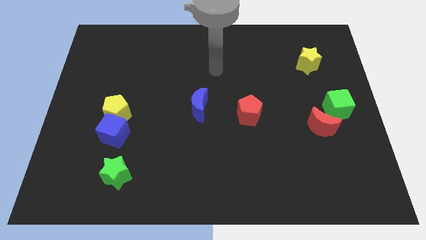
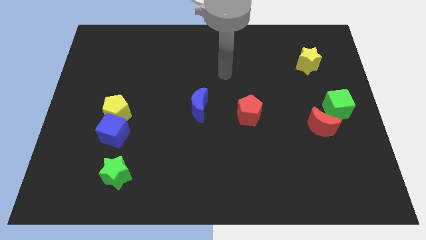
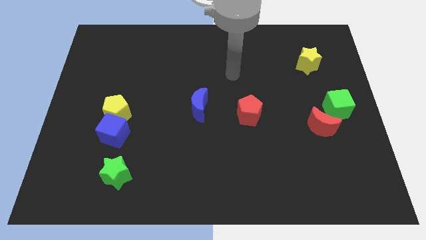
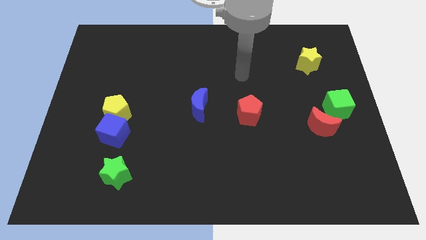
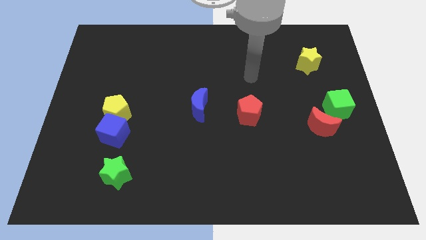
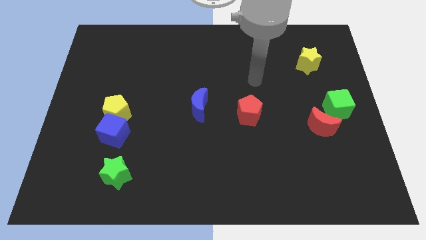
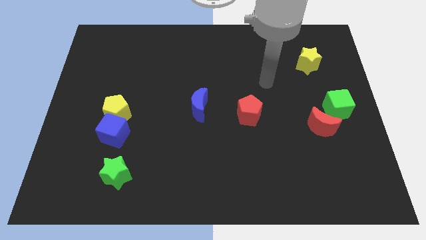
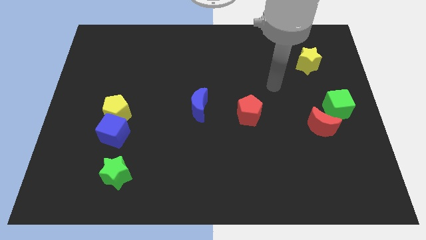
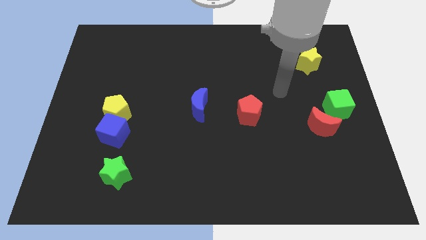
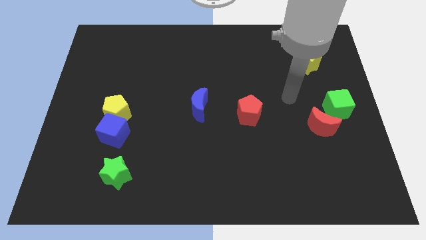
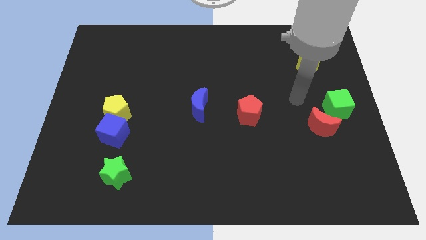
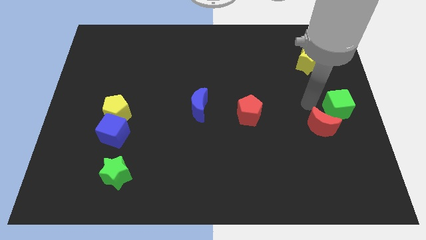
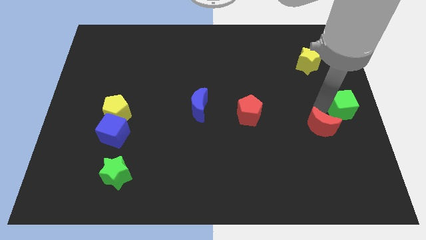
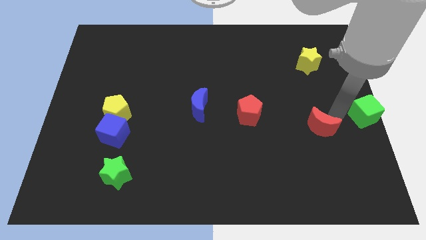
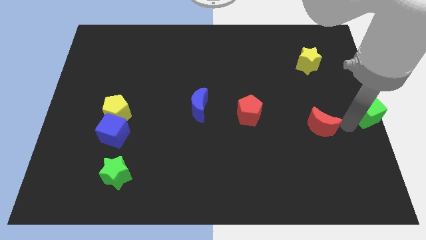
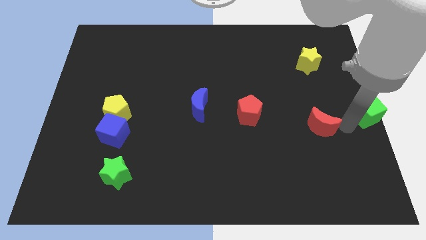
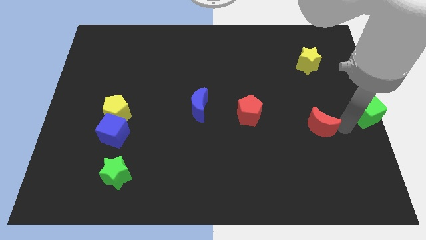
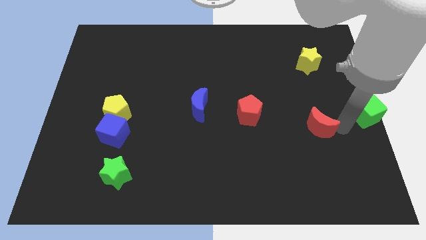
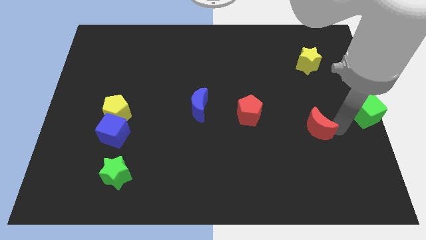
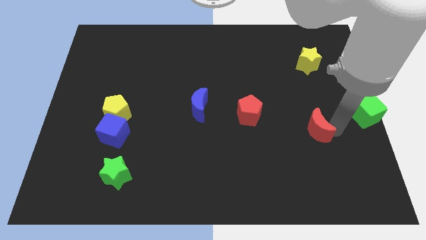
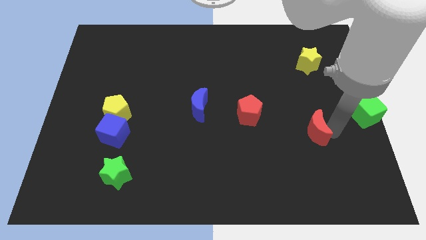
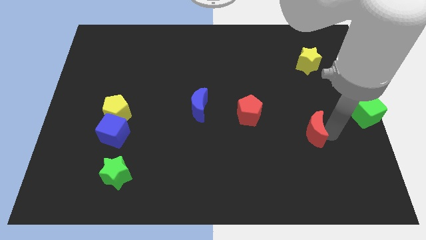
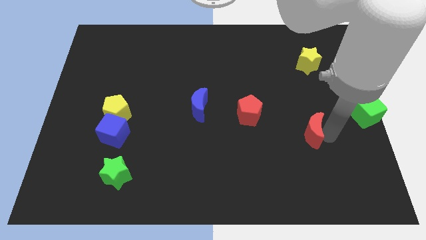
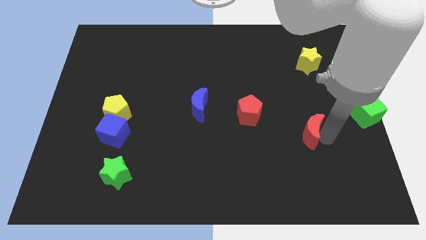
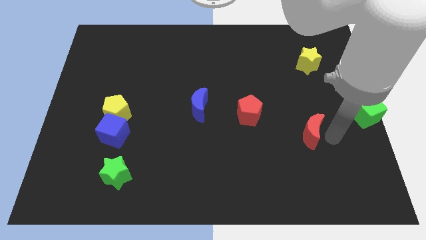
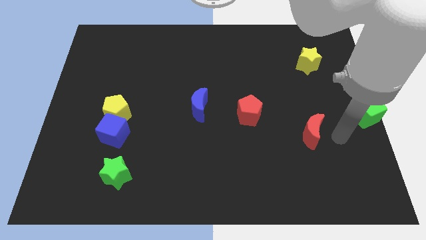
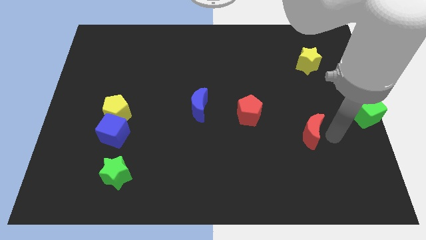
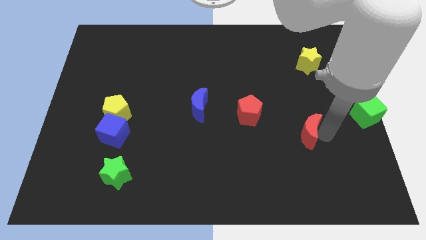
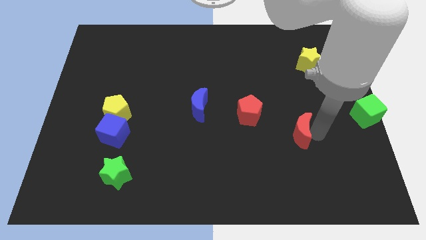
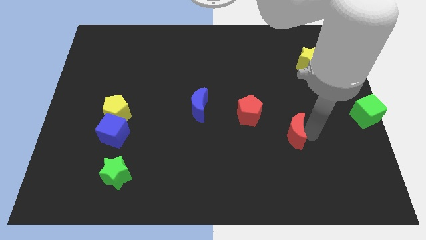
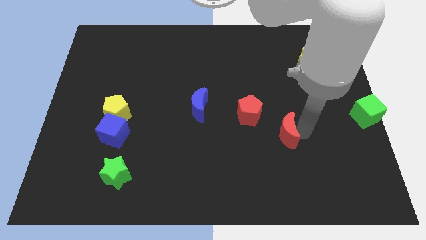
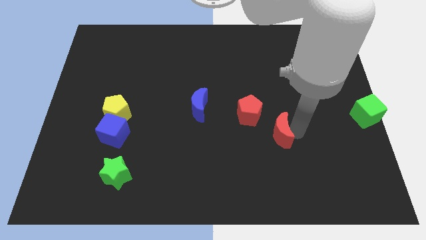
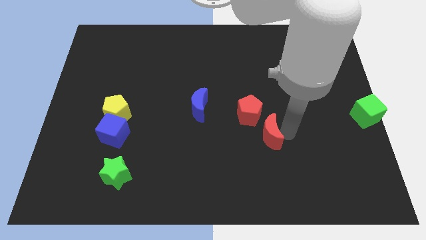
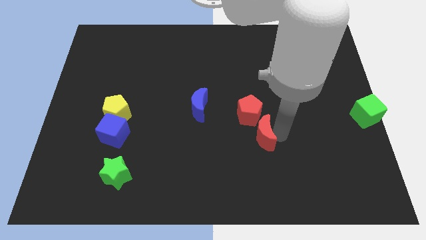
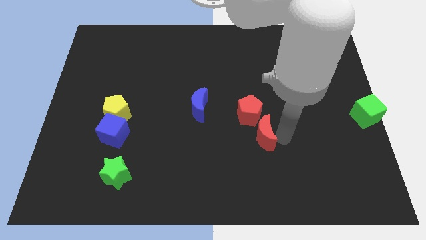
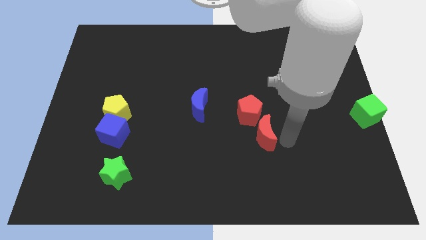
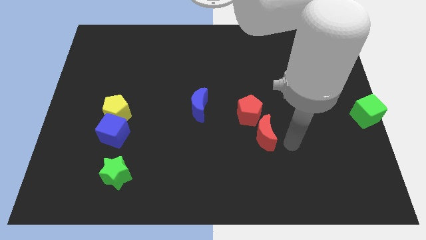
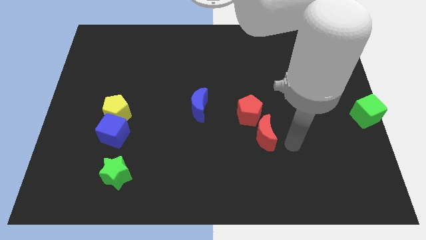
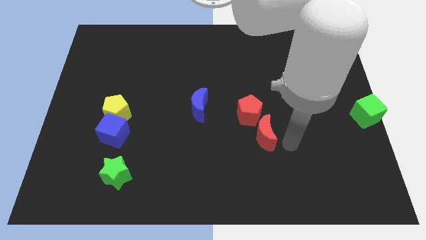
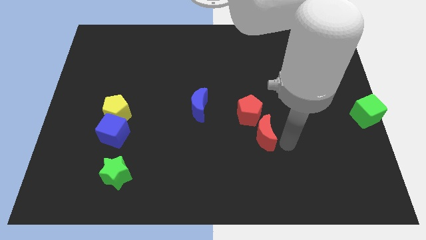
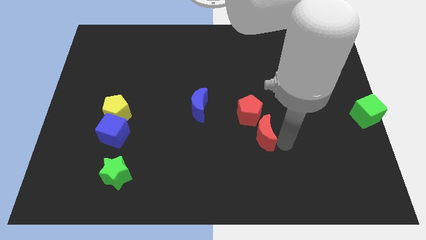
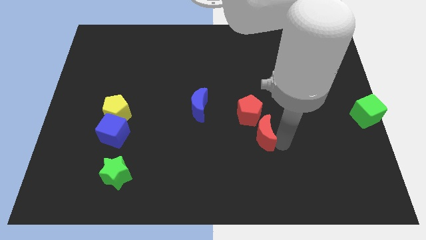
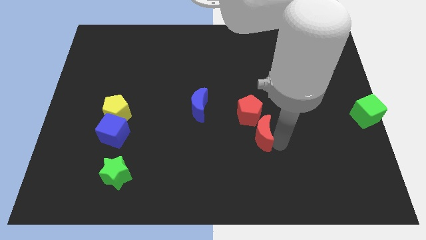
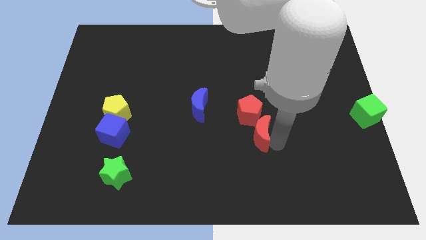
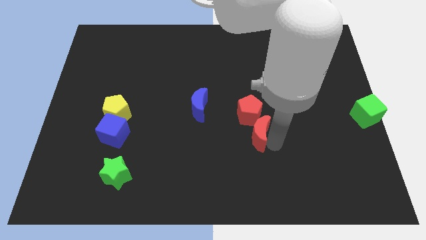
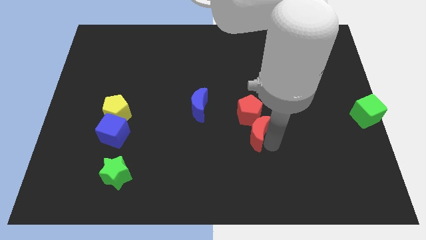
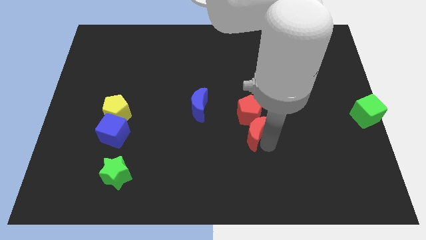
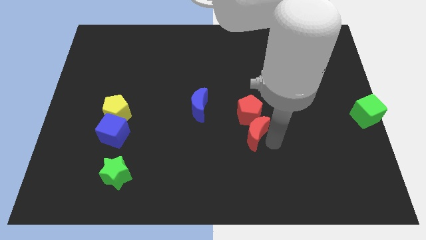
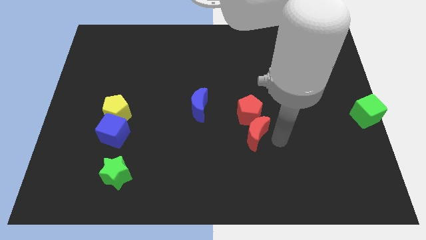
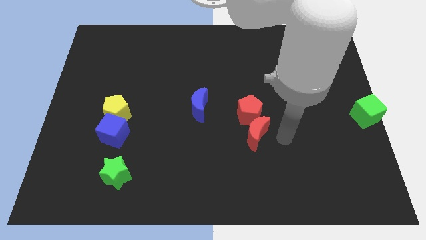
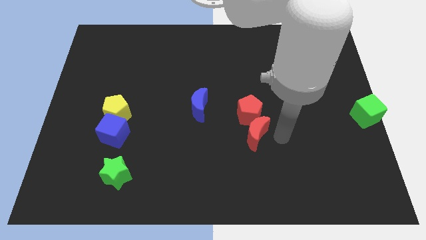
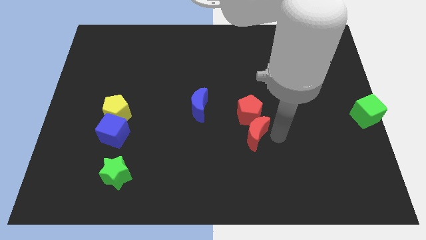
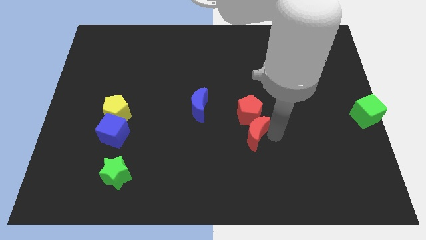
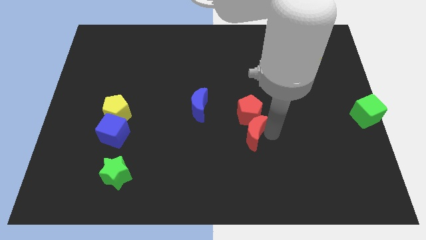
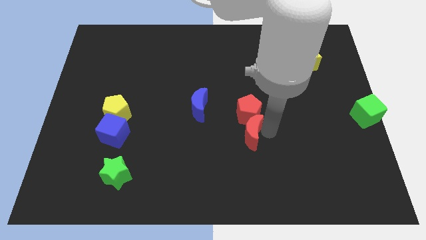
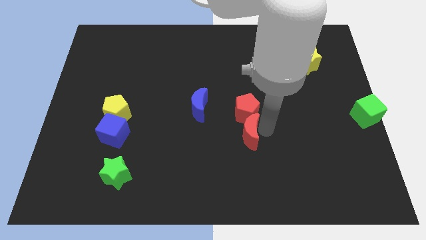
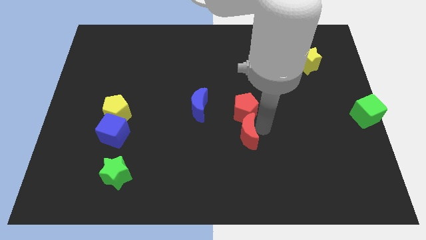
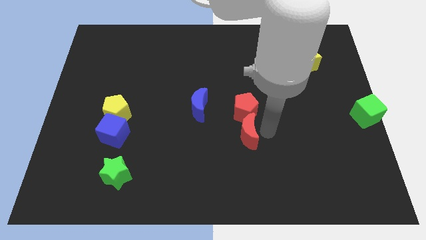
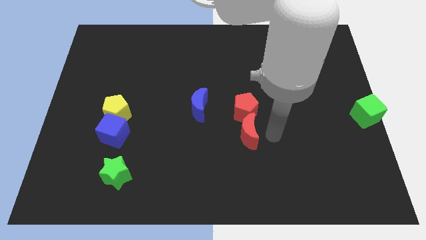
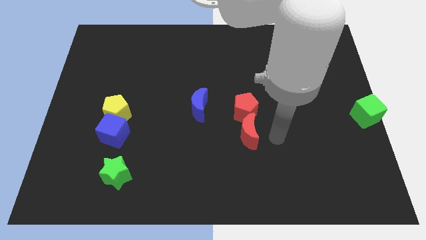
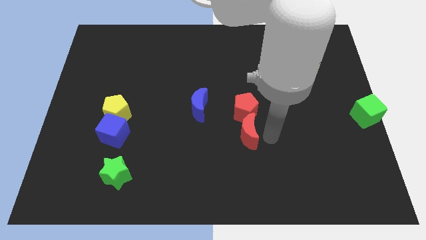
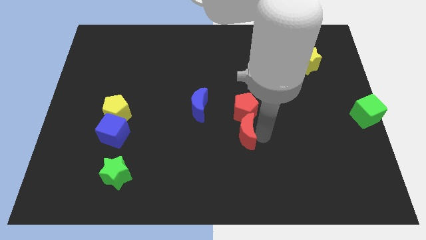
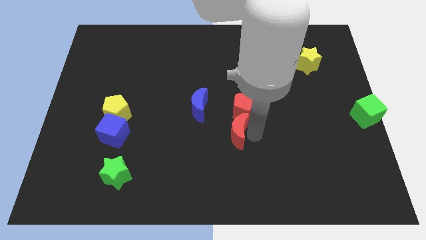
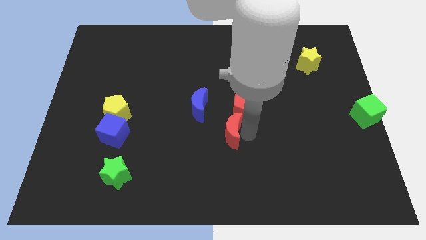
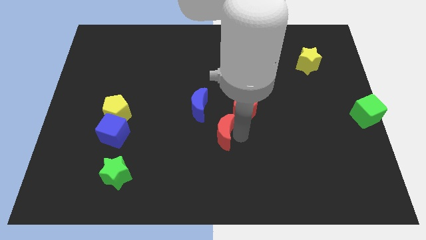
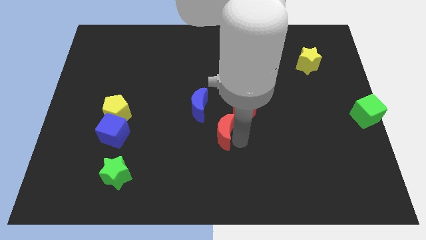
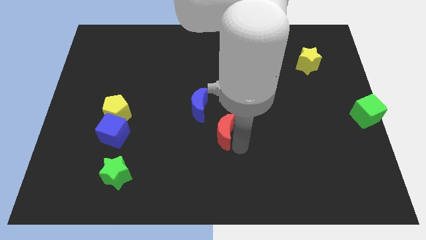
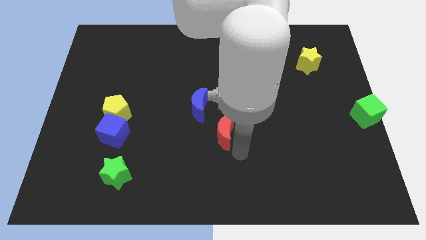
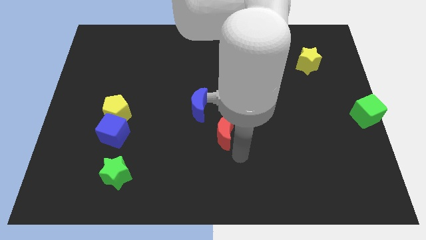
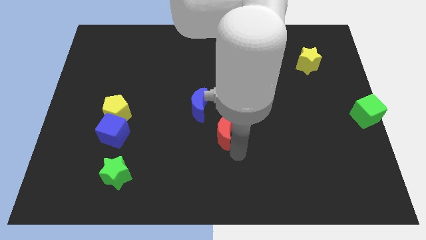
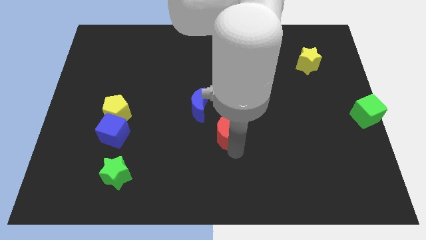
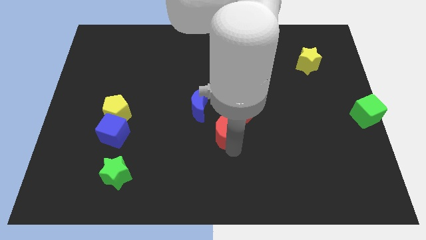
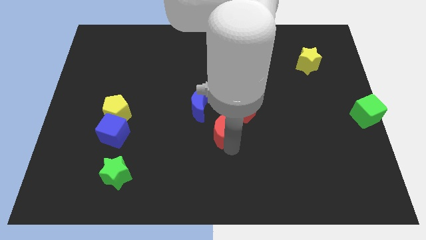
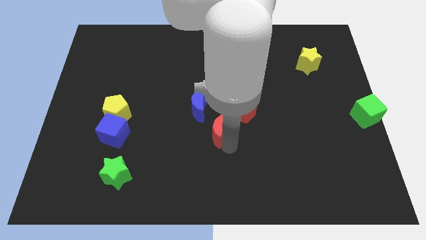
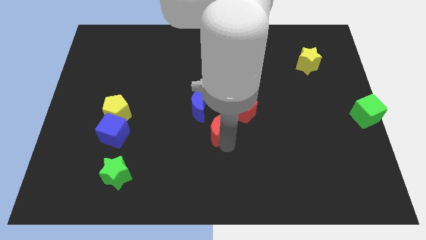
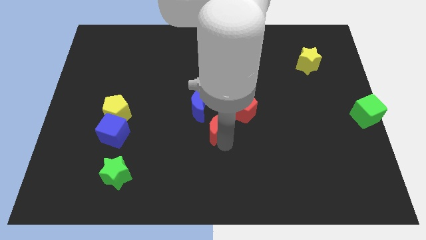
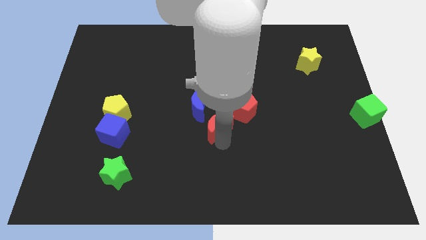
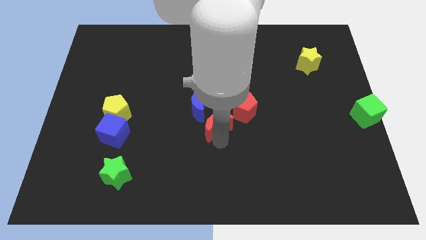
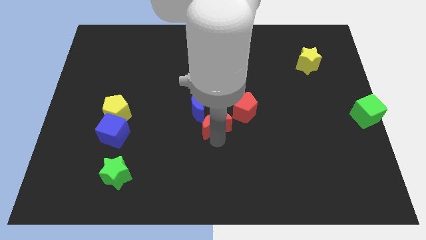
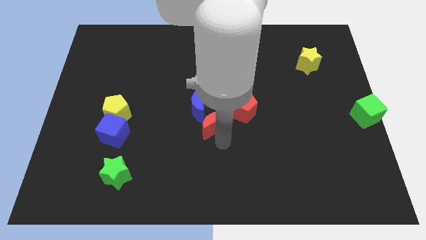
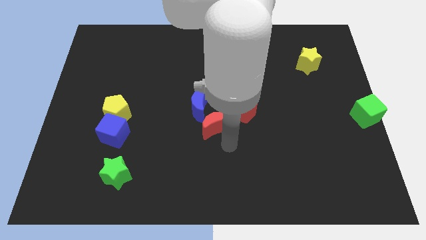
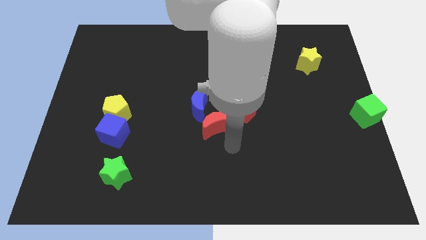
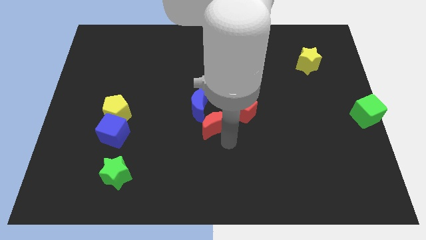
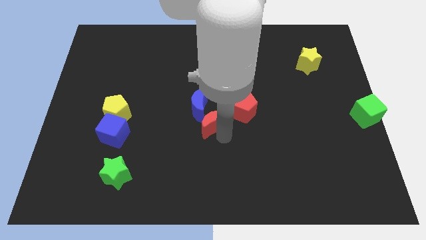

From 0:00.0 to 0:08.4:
put the red moon towards the blue moon
